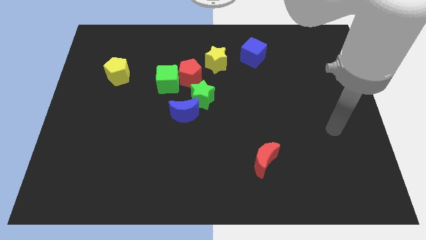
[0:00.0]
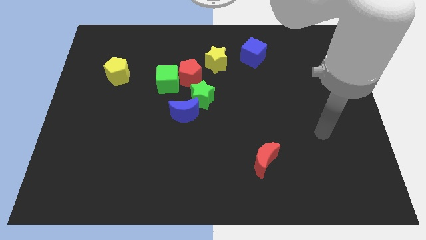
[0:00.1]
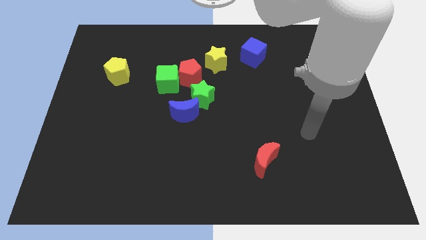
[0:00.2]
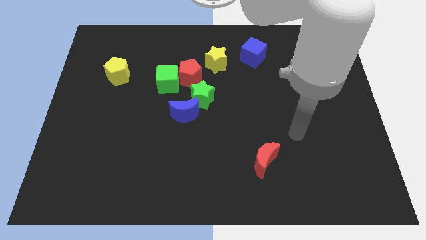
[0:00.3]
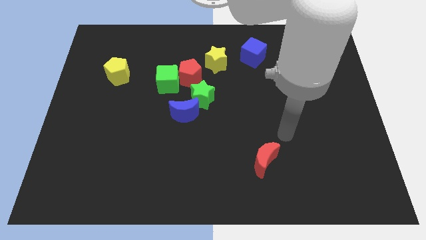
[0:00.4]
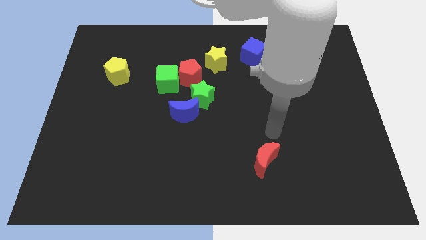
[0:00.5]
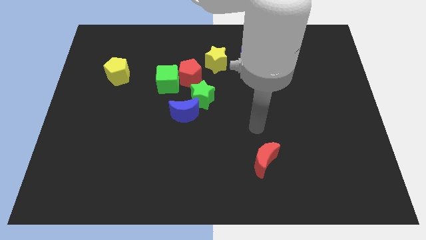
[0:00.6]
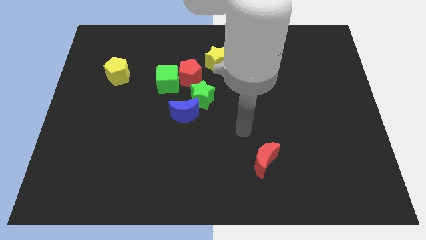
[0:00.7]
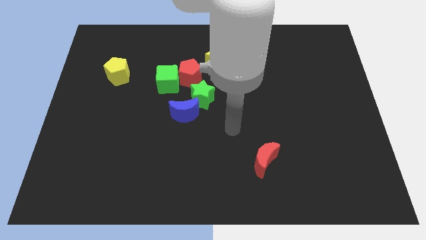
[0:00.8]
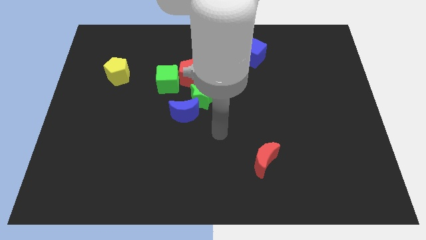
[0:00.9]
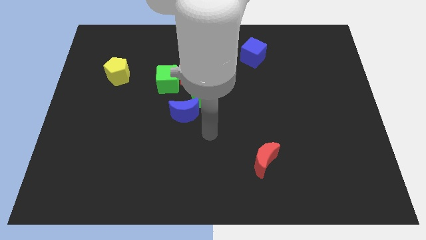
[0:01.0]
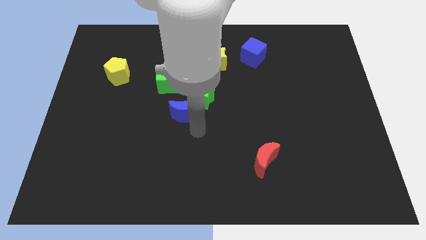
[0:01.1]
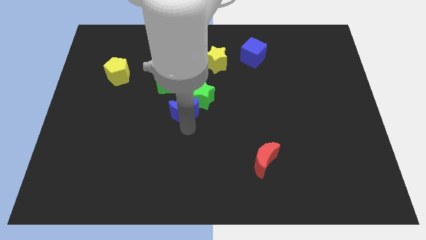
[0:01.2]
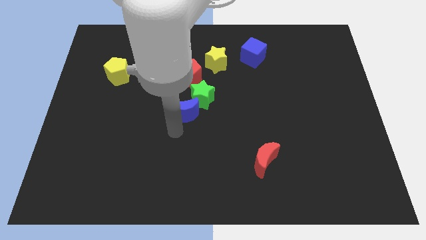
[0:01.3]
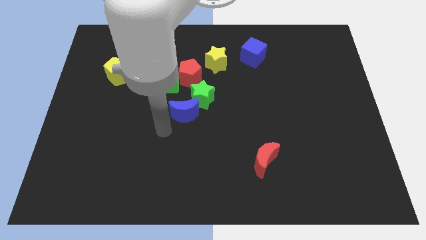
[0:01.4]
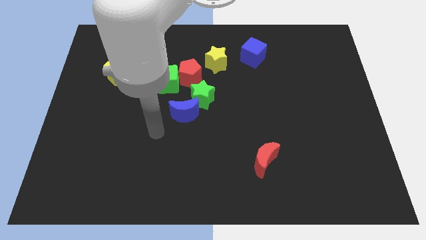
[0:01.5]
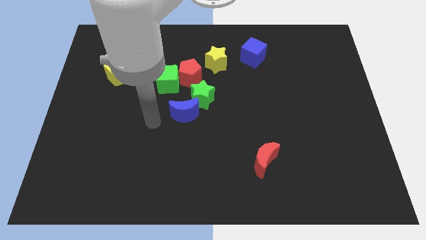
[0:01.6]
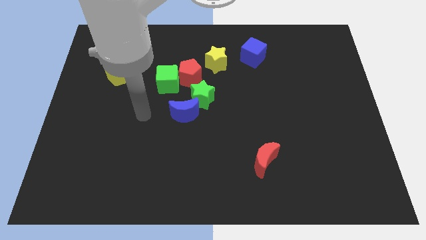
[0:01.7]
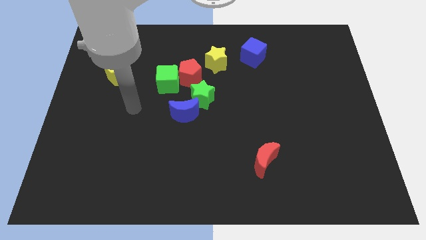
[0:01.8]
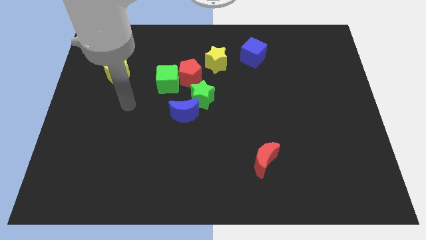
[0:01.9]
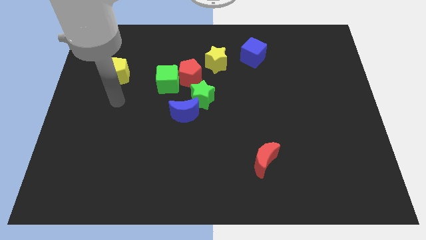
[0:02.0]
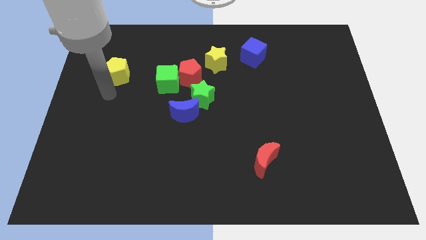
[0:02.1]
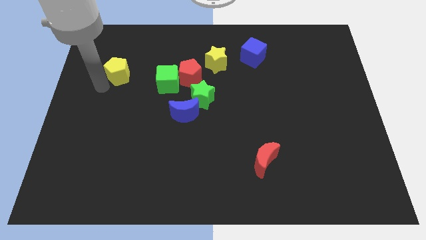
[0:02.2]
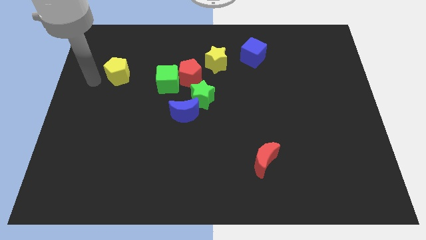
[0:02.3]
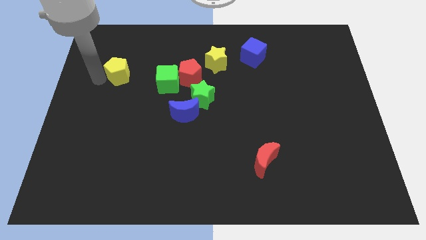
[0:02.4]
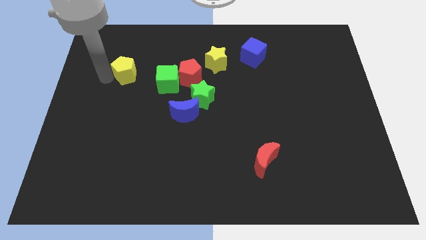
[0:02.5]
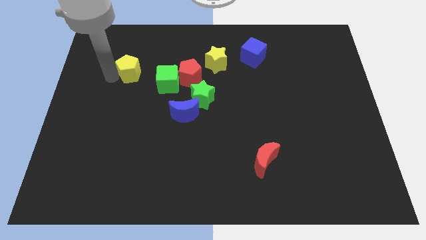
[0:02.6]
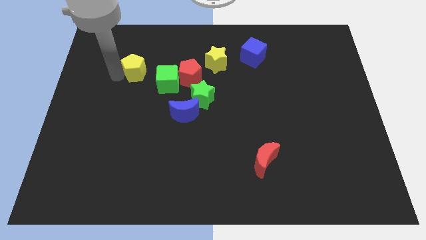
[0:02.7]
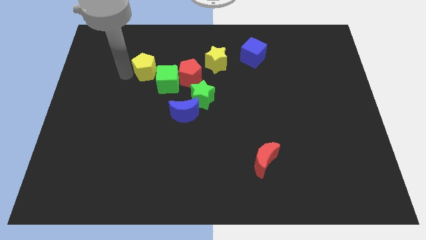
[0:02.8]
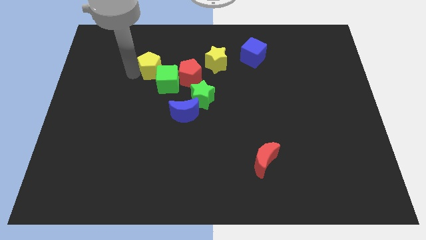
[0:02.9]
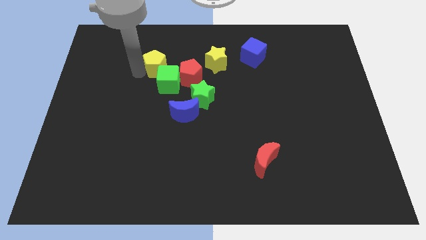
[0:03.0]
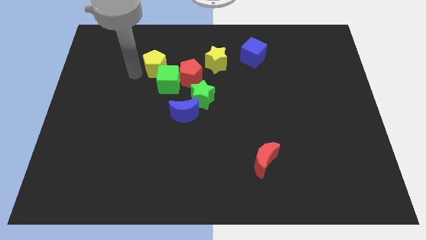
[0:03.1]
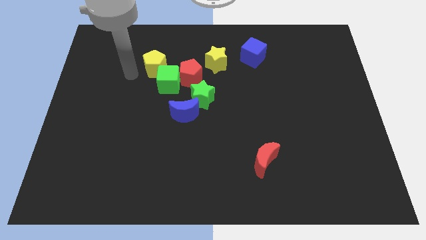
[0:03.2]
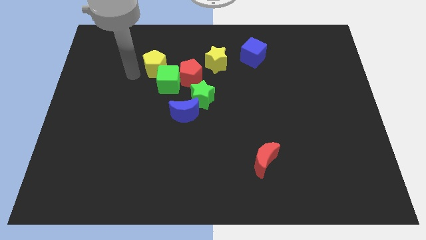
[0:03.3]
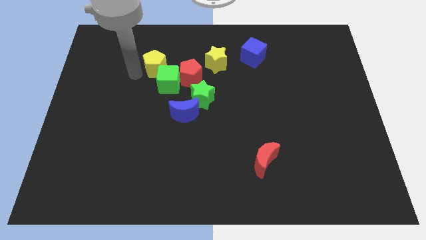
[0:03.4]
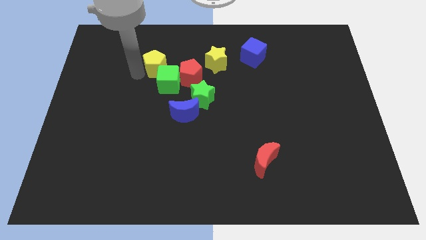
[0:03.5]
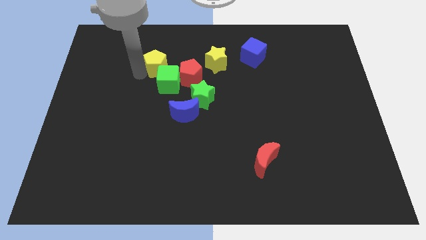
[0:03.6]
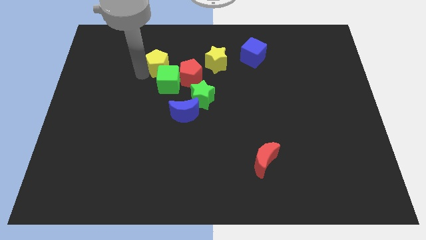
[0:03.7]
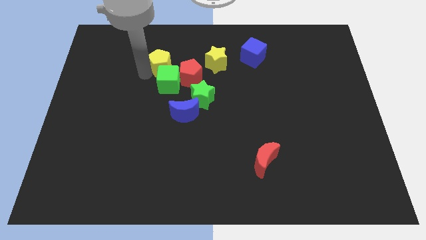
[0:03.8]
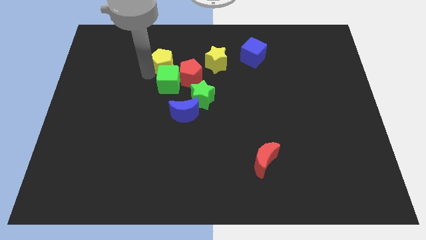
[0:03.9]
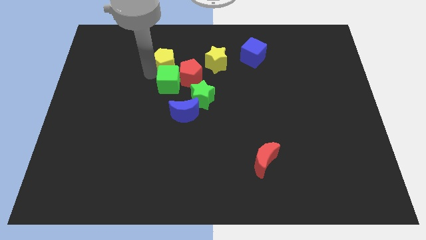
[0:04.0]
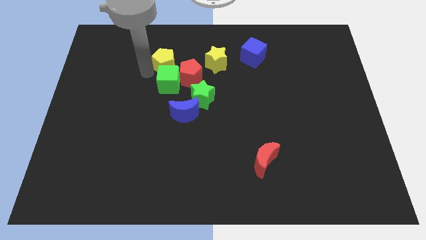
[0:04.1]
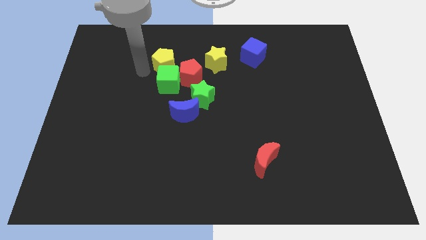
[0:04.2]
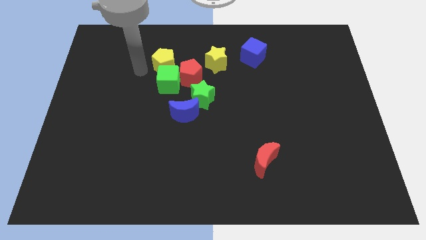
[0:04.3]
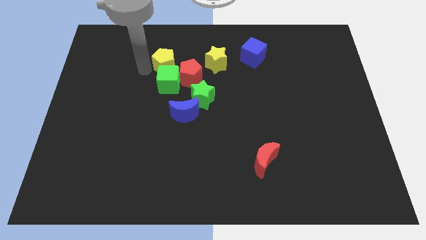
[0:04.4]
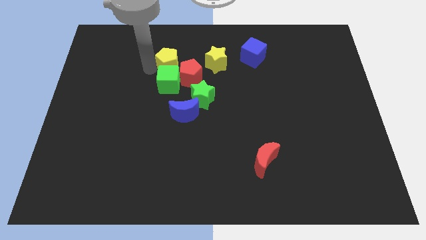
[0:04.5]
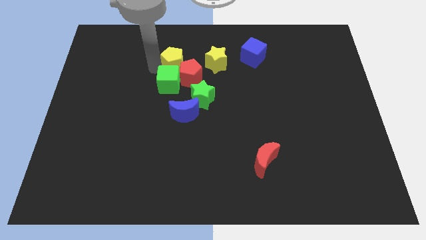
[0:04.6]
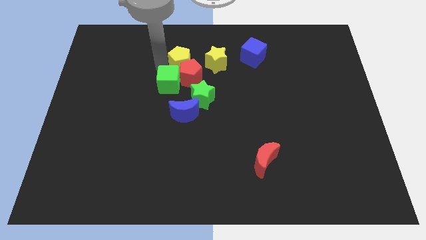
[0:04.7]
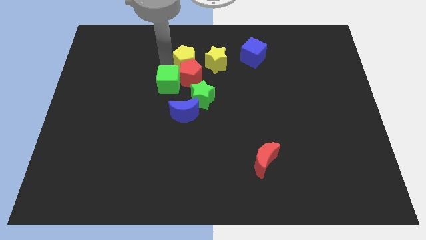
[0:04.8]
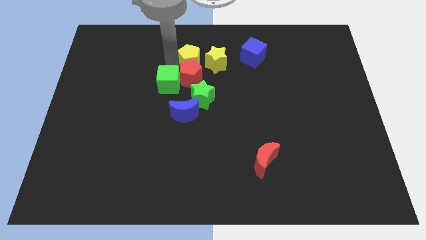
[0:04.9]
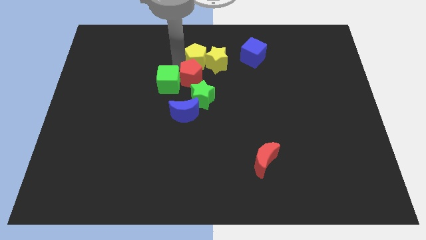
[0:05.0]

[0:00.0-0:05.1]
push the yellow pentagon close to the yellow star

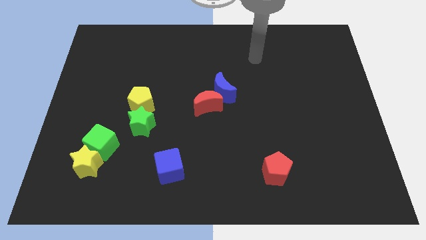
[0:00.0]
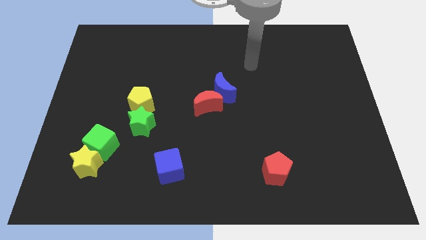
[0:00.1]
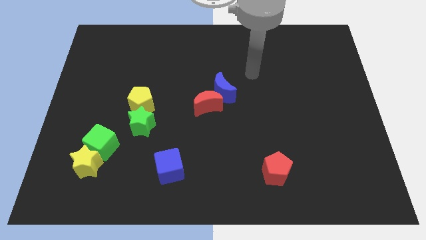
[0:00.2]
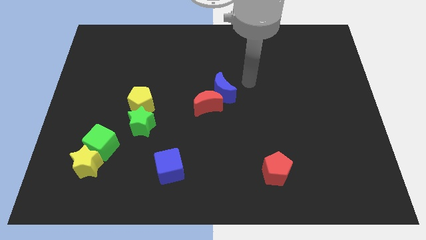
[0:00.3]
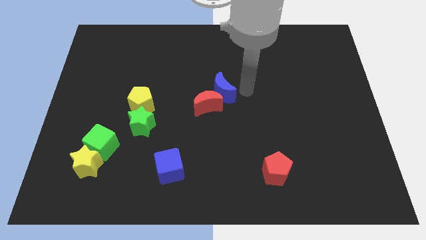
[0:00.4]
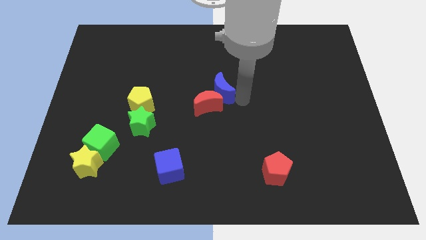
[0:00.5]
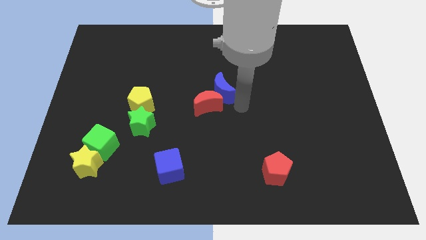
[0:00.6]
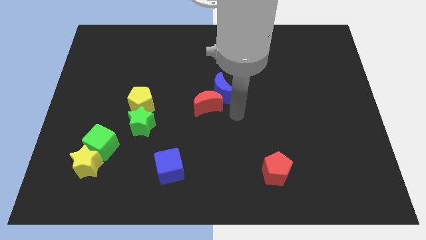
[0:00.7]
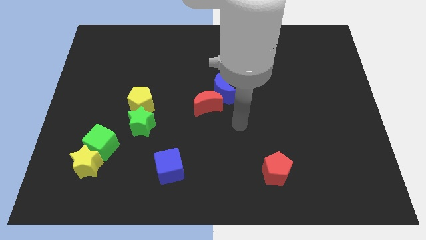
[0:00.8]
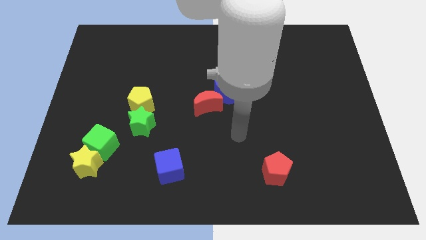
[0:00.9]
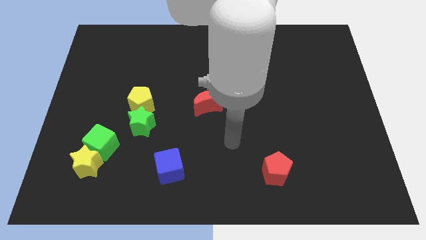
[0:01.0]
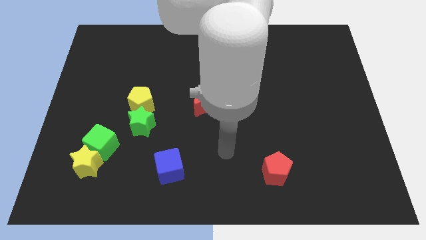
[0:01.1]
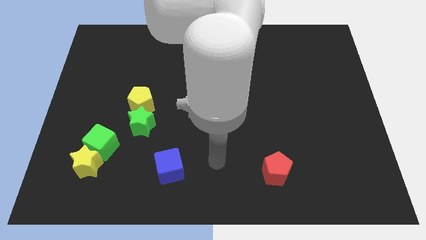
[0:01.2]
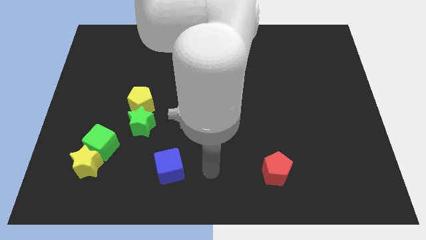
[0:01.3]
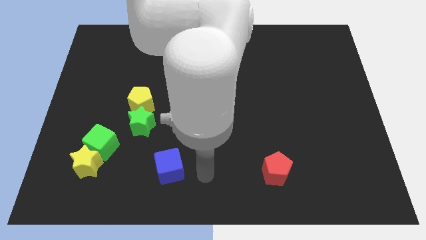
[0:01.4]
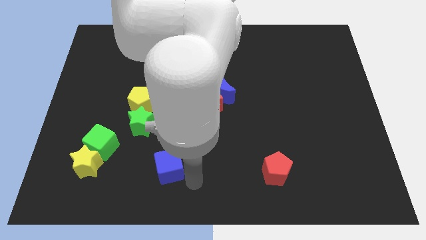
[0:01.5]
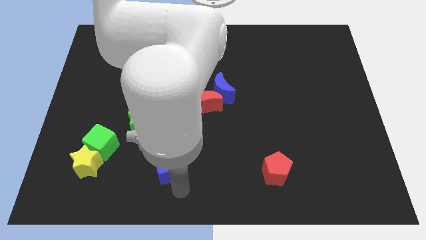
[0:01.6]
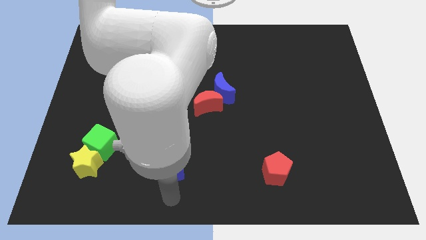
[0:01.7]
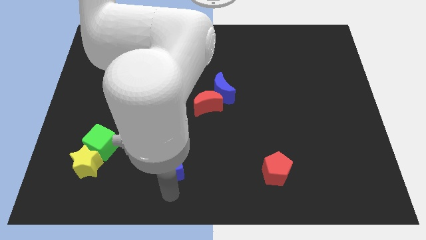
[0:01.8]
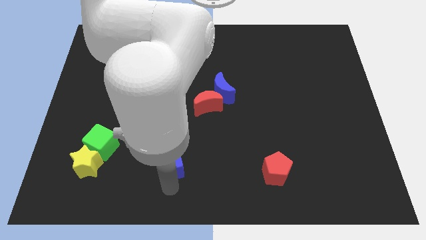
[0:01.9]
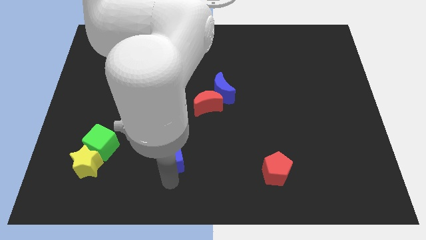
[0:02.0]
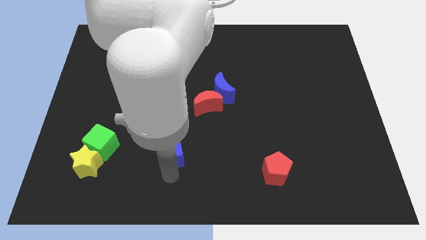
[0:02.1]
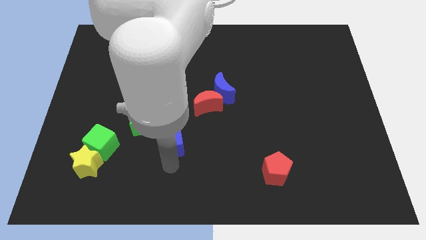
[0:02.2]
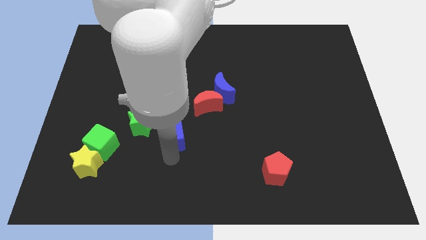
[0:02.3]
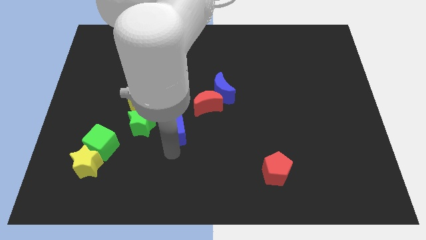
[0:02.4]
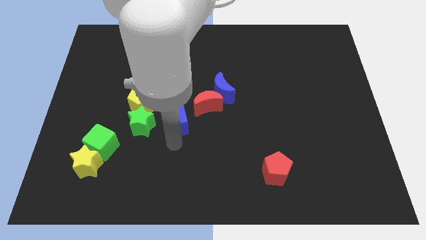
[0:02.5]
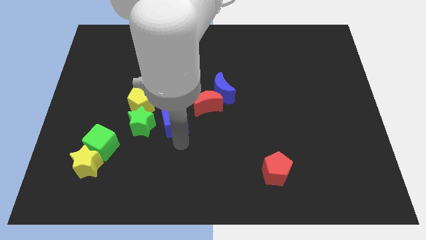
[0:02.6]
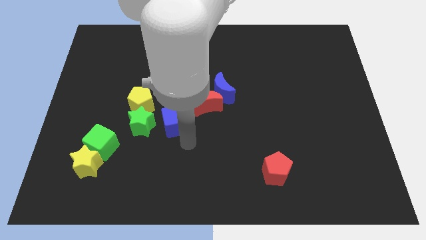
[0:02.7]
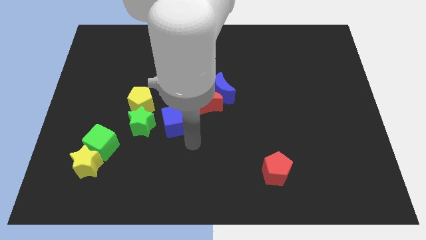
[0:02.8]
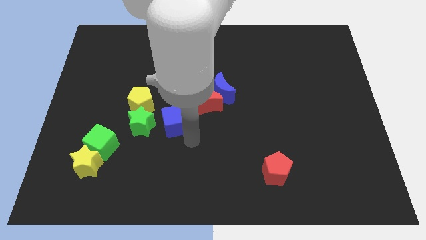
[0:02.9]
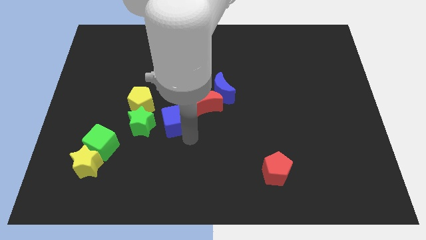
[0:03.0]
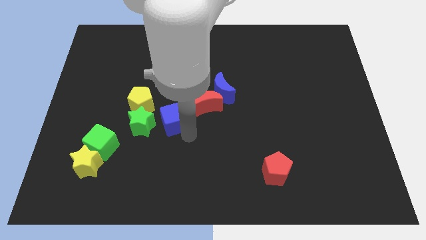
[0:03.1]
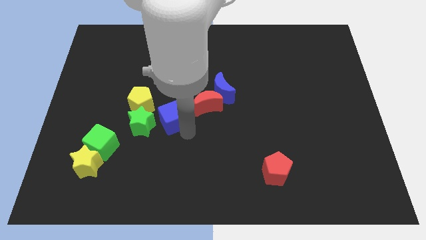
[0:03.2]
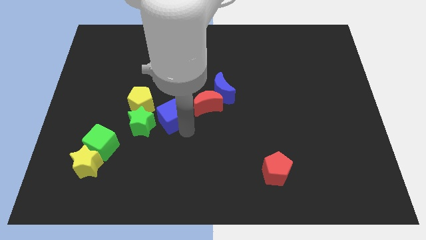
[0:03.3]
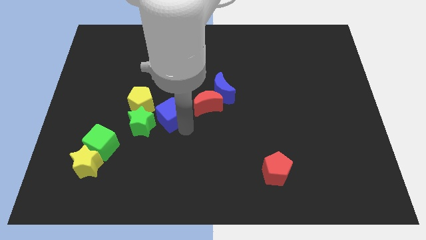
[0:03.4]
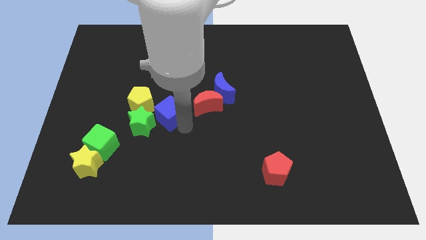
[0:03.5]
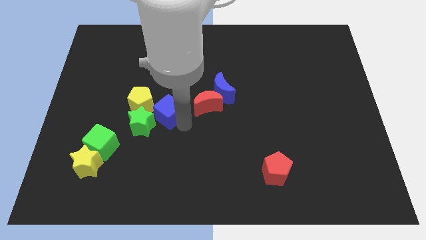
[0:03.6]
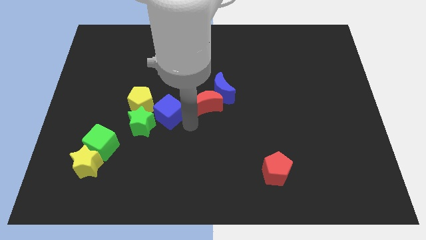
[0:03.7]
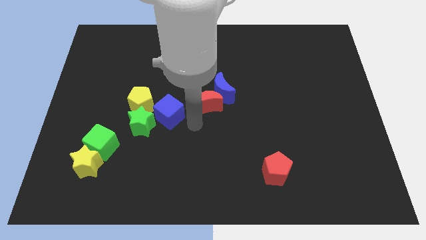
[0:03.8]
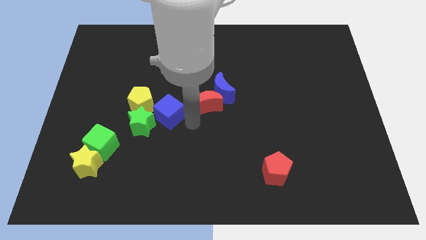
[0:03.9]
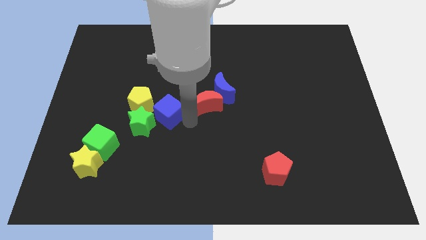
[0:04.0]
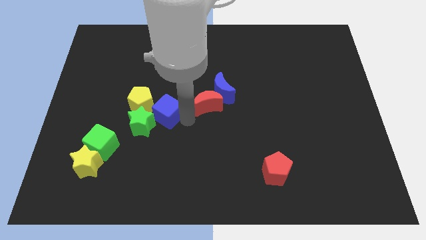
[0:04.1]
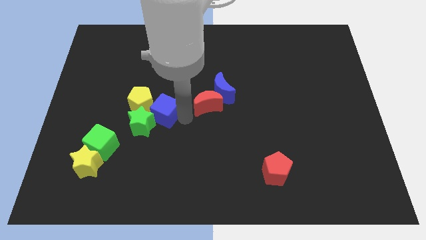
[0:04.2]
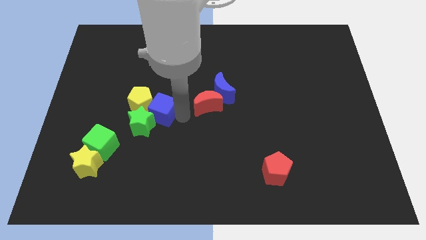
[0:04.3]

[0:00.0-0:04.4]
push the blue cube next to the yellow pentagon
